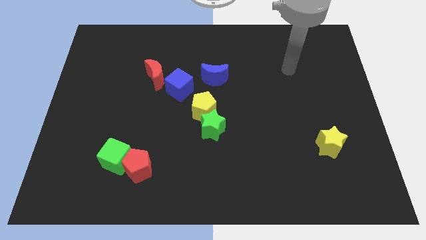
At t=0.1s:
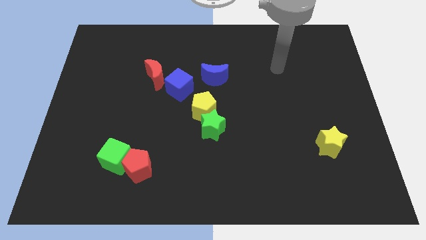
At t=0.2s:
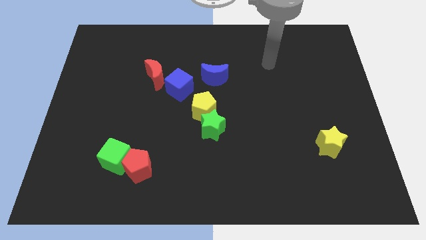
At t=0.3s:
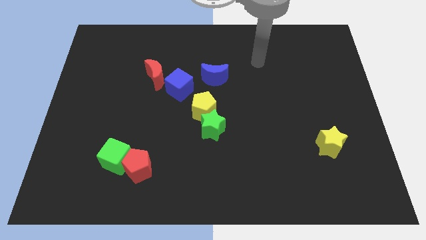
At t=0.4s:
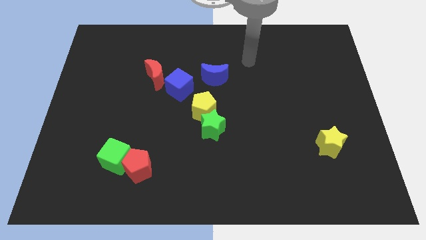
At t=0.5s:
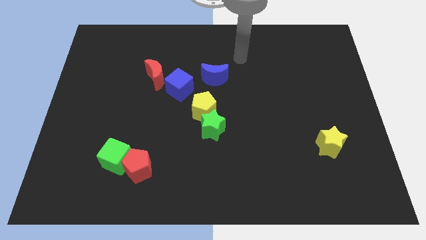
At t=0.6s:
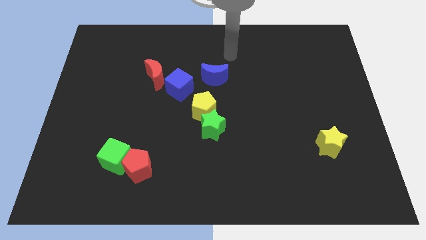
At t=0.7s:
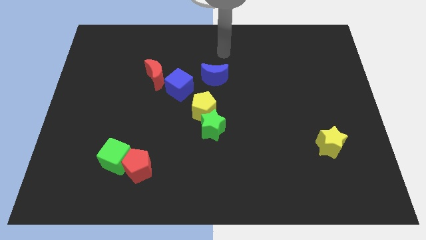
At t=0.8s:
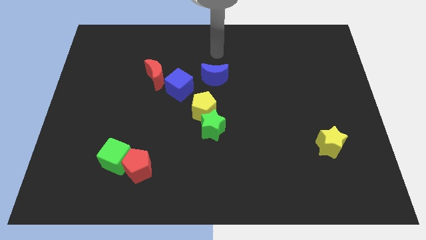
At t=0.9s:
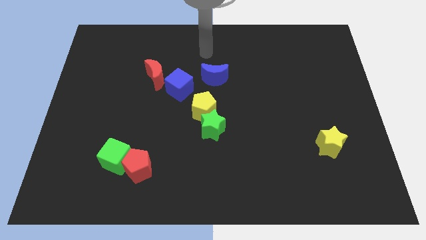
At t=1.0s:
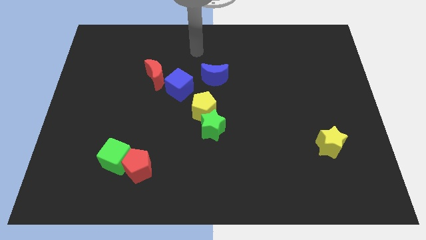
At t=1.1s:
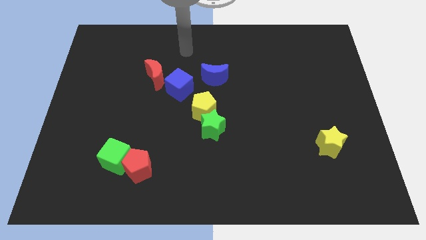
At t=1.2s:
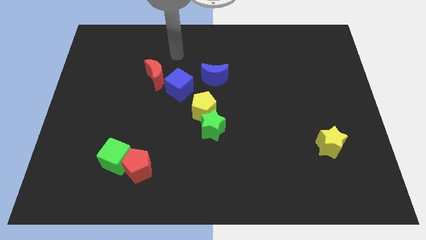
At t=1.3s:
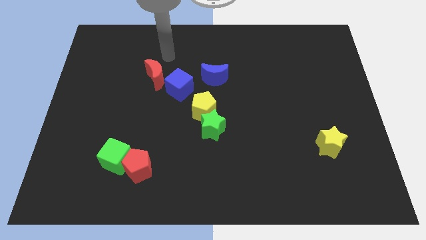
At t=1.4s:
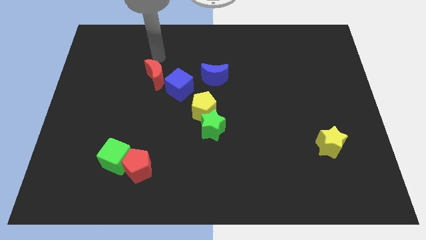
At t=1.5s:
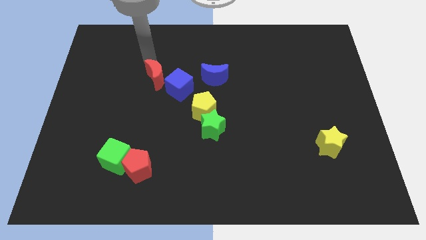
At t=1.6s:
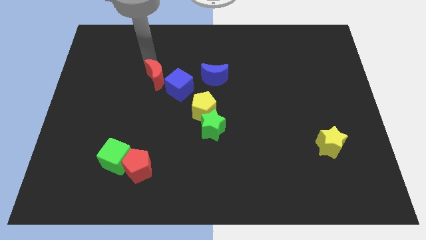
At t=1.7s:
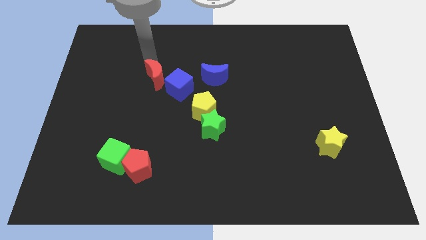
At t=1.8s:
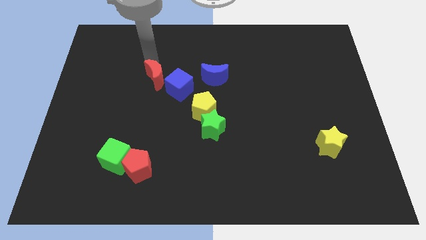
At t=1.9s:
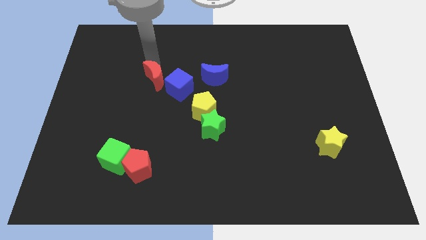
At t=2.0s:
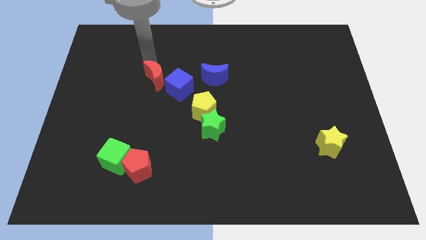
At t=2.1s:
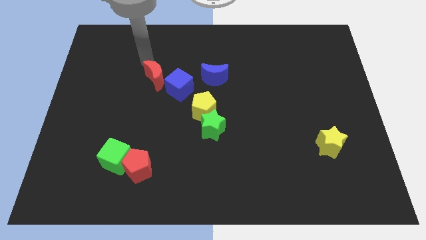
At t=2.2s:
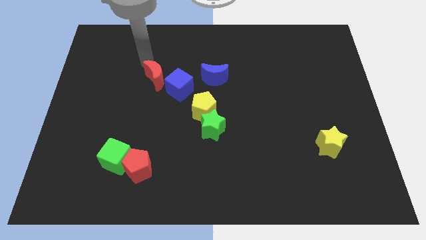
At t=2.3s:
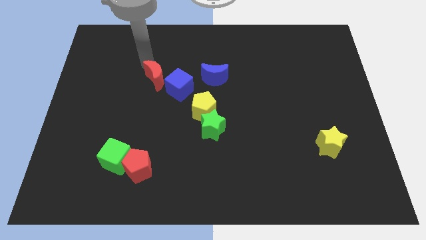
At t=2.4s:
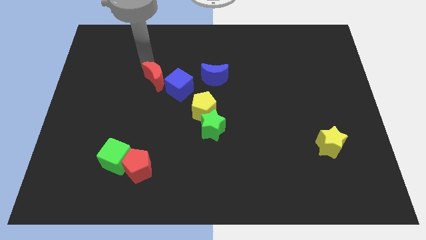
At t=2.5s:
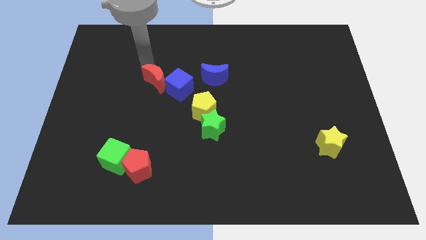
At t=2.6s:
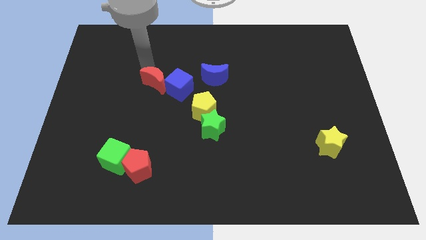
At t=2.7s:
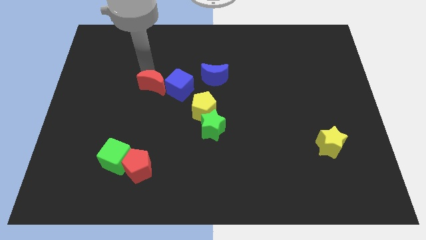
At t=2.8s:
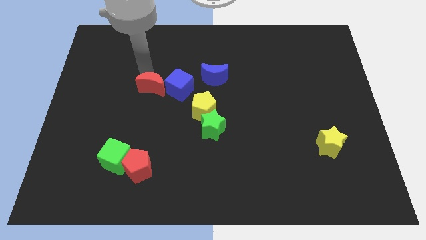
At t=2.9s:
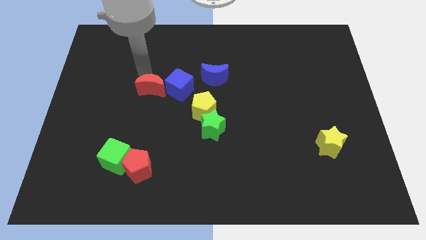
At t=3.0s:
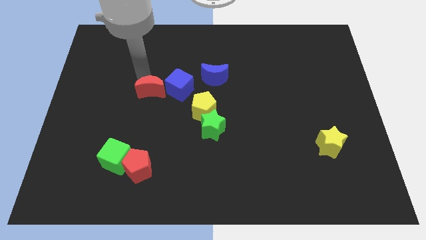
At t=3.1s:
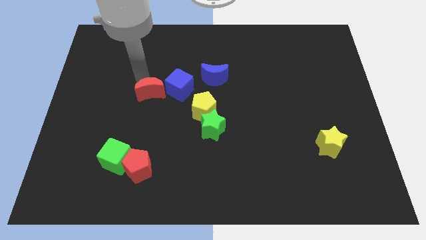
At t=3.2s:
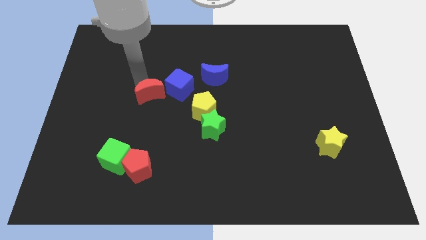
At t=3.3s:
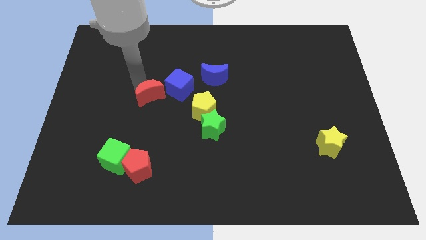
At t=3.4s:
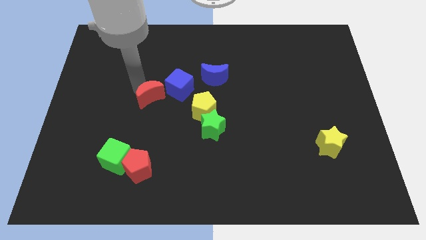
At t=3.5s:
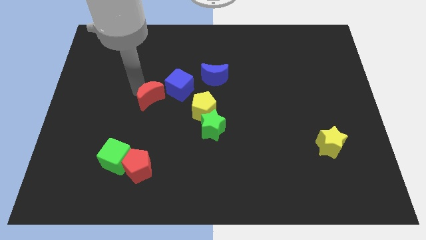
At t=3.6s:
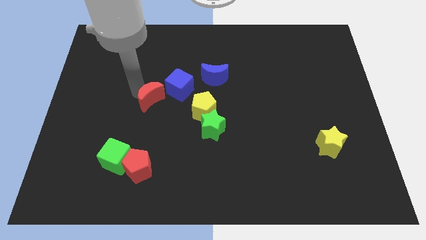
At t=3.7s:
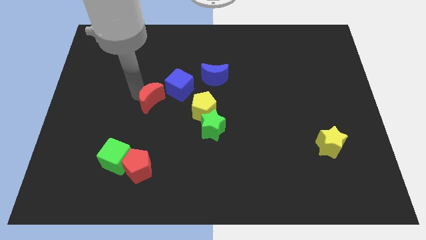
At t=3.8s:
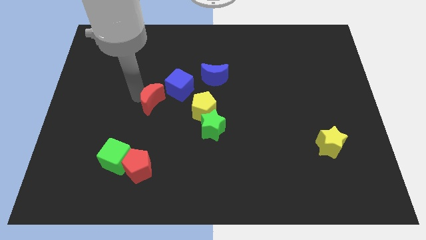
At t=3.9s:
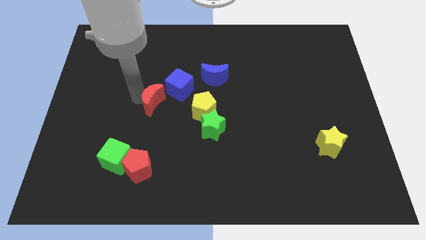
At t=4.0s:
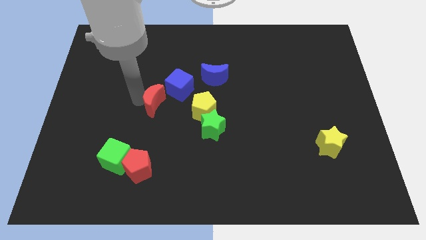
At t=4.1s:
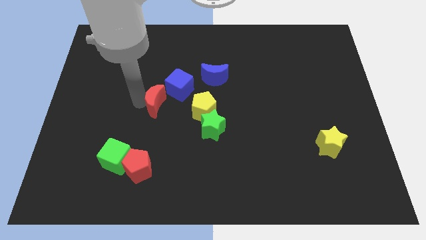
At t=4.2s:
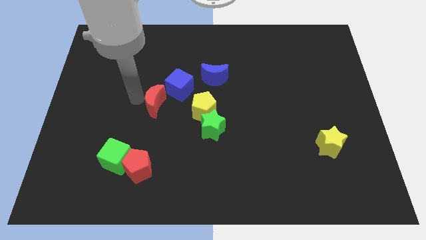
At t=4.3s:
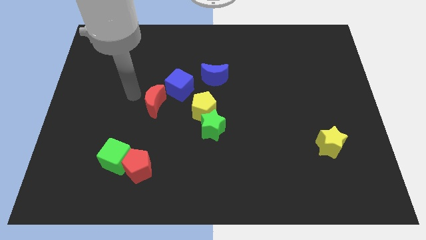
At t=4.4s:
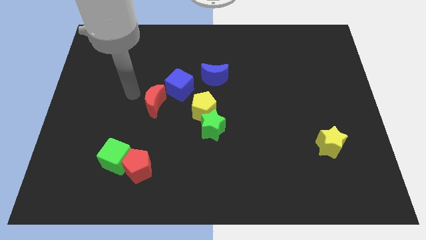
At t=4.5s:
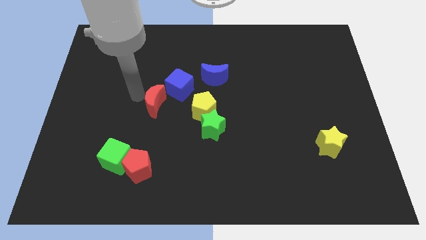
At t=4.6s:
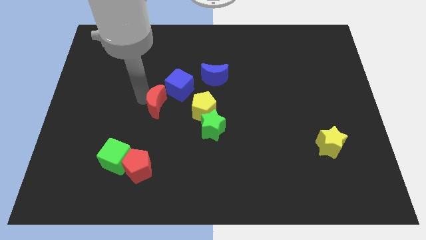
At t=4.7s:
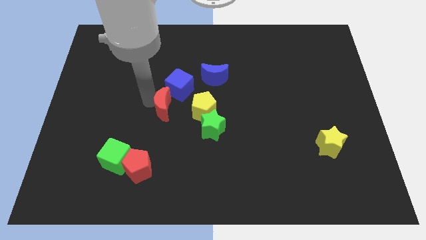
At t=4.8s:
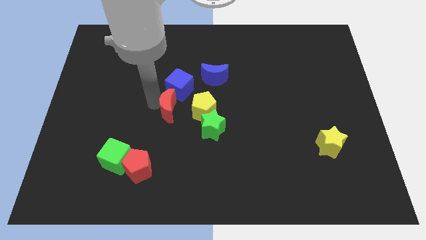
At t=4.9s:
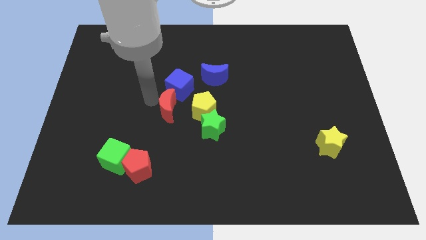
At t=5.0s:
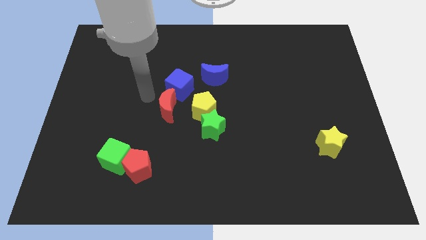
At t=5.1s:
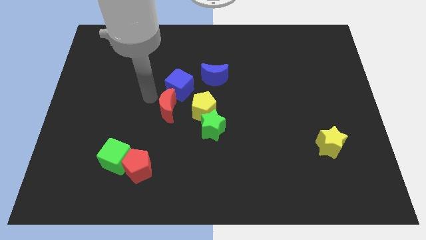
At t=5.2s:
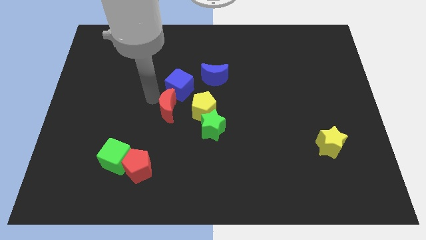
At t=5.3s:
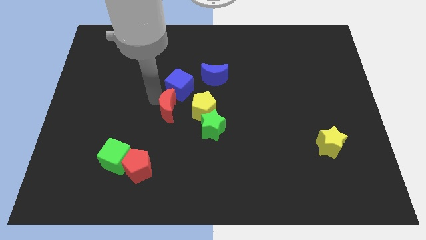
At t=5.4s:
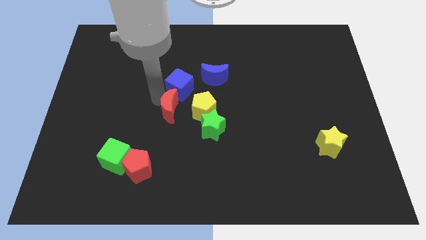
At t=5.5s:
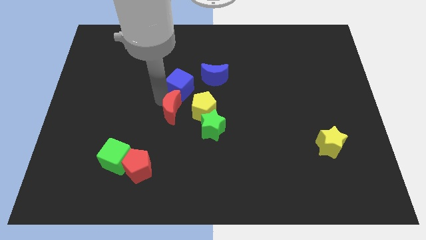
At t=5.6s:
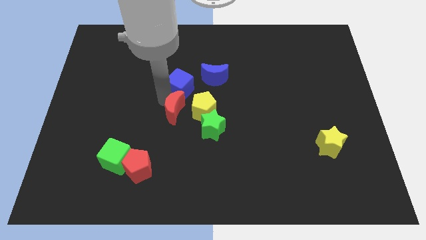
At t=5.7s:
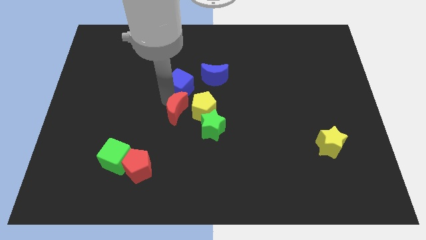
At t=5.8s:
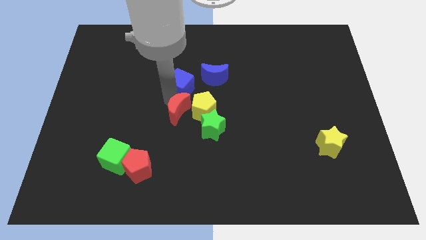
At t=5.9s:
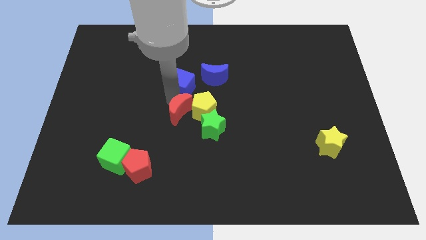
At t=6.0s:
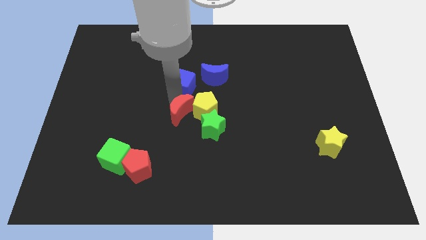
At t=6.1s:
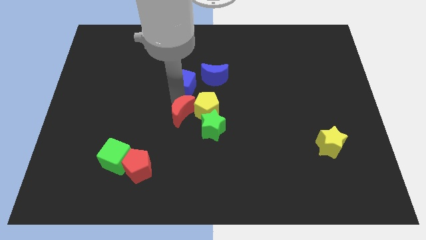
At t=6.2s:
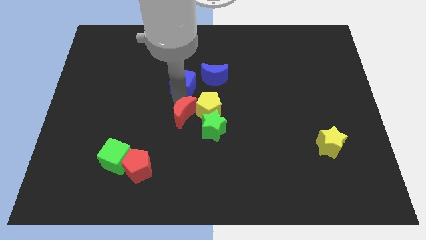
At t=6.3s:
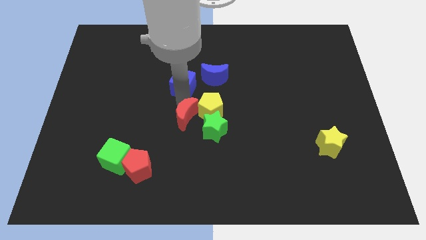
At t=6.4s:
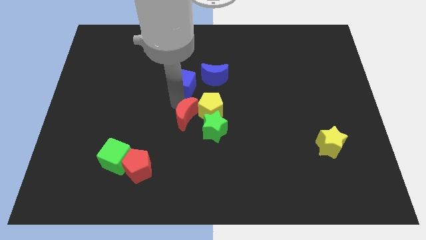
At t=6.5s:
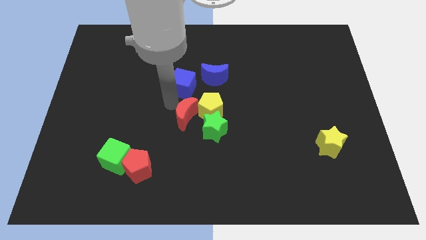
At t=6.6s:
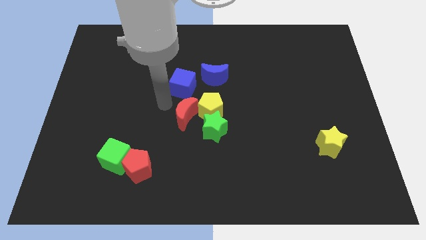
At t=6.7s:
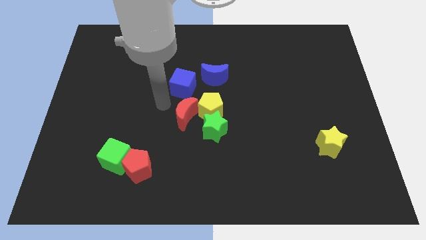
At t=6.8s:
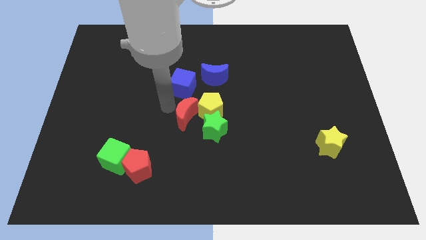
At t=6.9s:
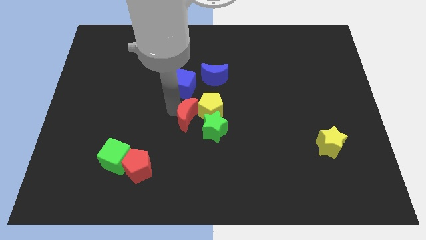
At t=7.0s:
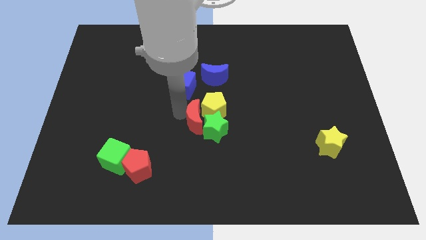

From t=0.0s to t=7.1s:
slide the red moon towards the green star
